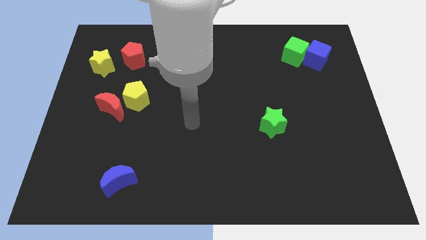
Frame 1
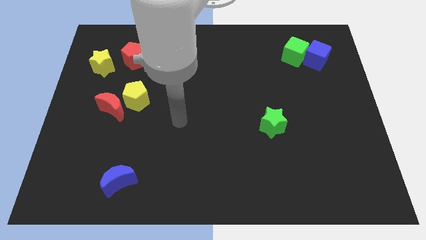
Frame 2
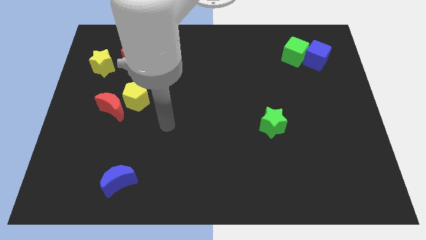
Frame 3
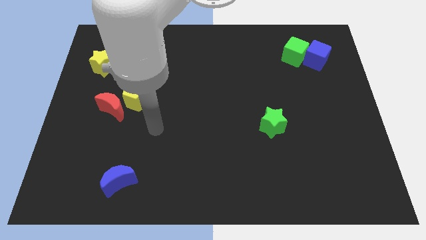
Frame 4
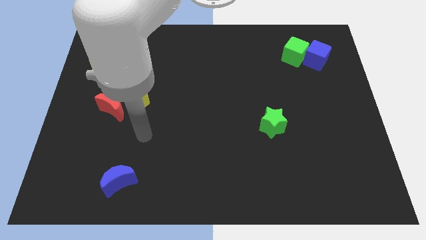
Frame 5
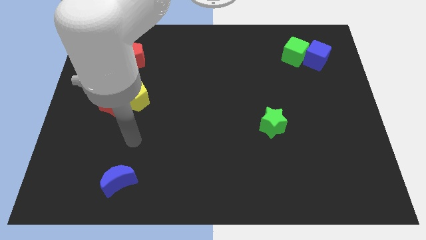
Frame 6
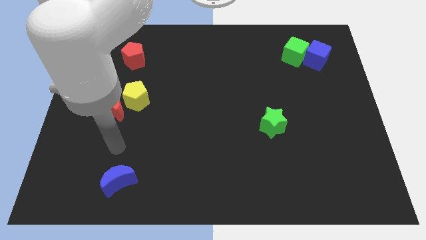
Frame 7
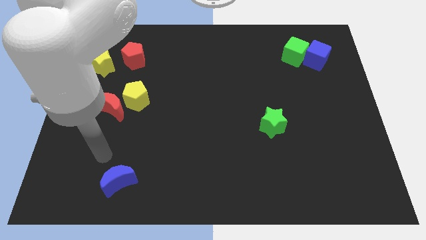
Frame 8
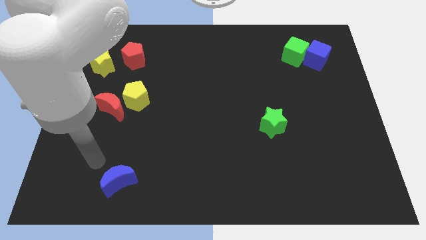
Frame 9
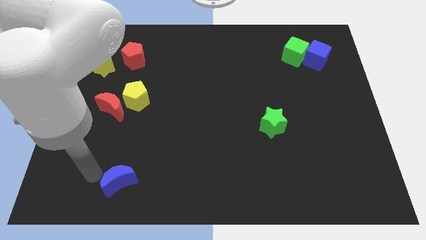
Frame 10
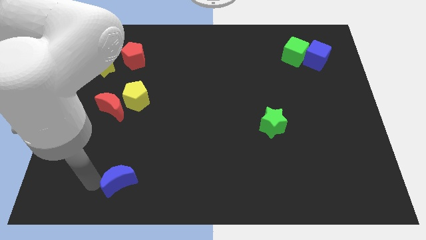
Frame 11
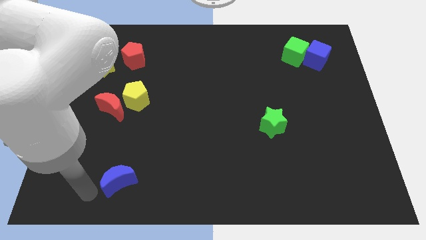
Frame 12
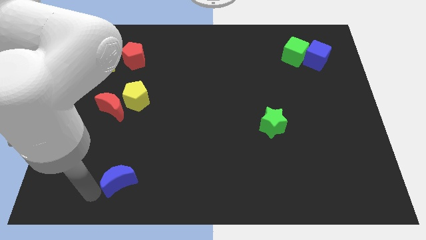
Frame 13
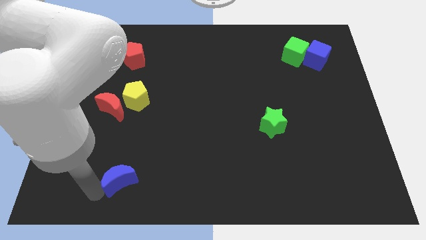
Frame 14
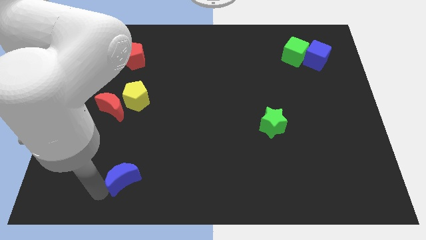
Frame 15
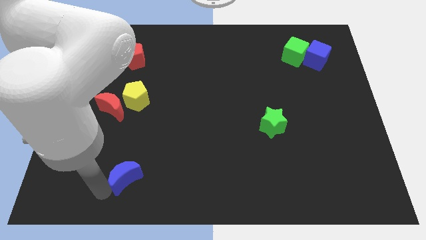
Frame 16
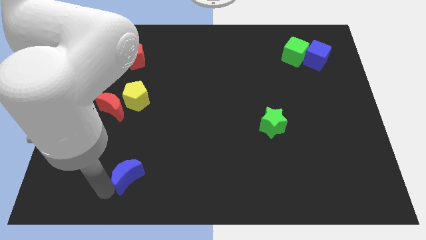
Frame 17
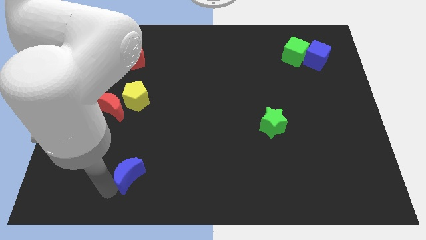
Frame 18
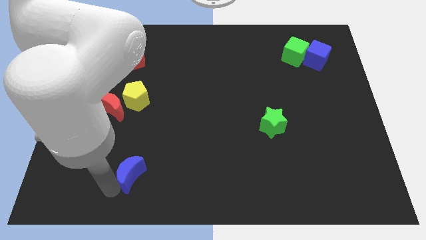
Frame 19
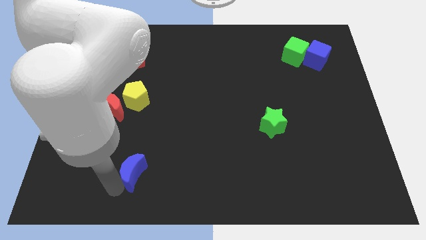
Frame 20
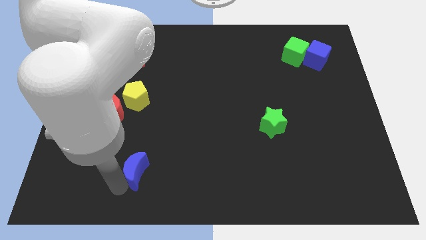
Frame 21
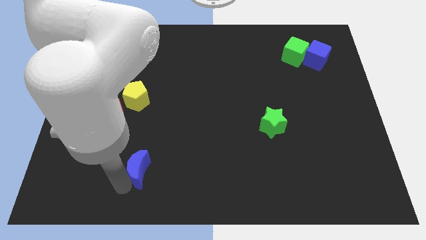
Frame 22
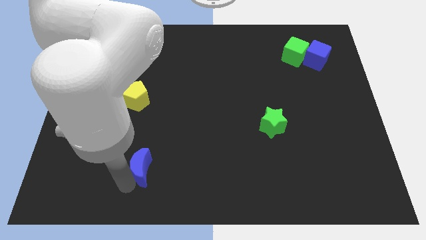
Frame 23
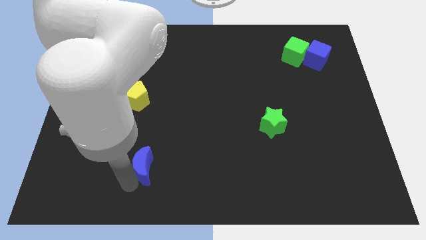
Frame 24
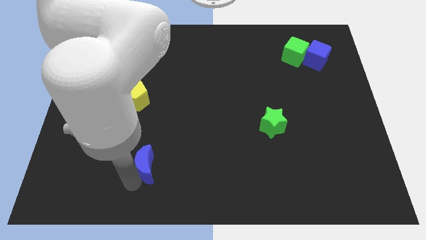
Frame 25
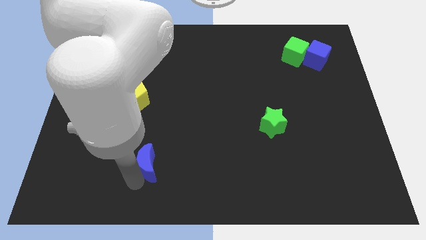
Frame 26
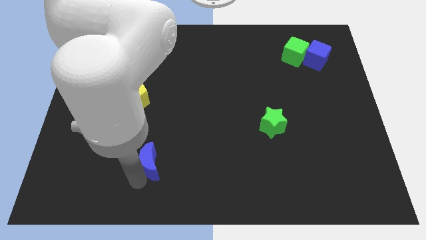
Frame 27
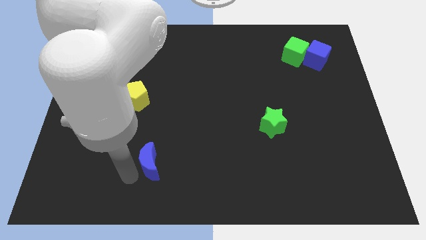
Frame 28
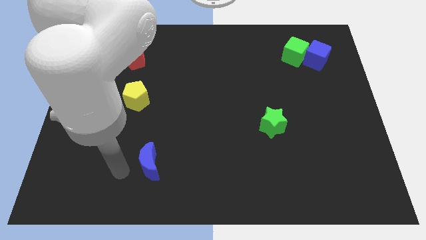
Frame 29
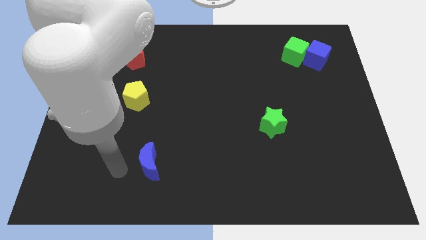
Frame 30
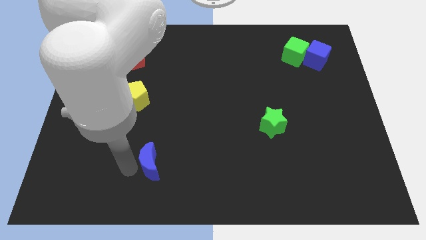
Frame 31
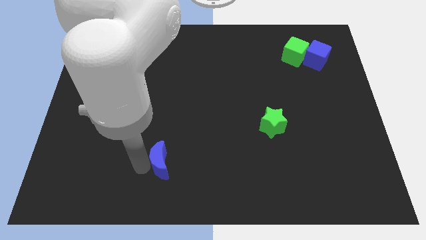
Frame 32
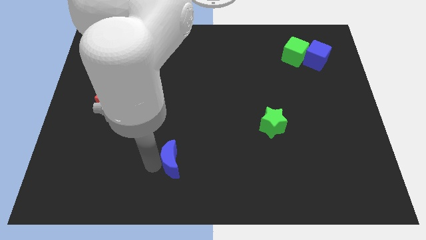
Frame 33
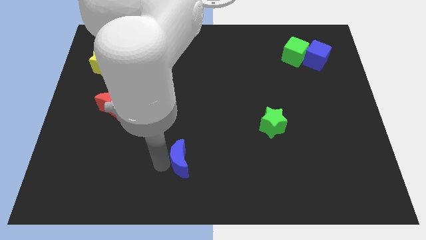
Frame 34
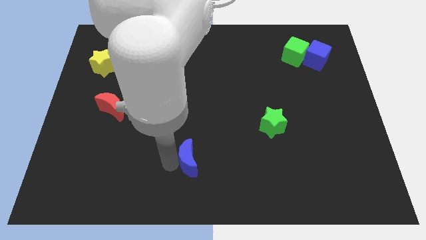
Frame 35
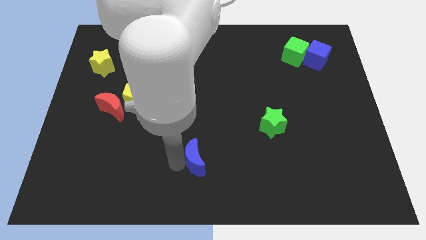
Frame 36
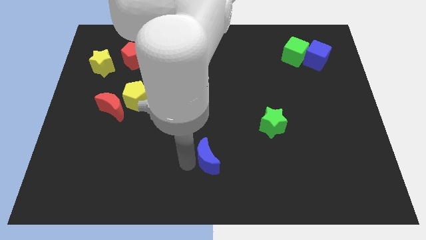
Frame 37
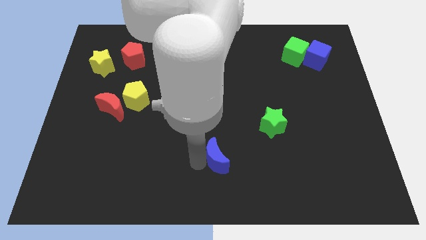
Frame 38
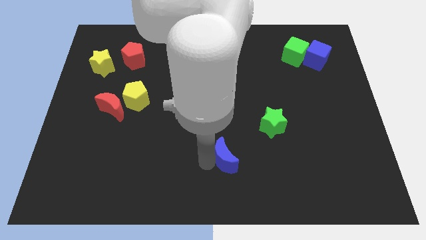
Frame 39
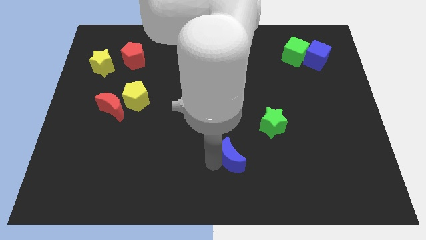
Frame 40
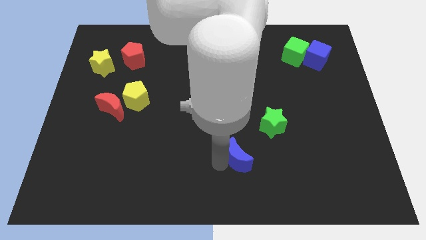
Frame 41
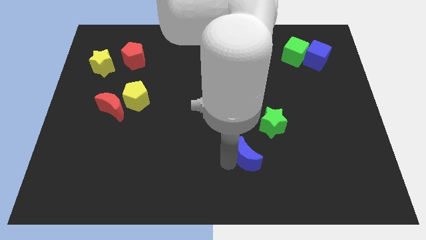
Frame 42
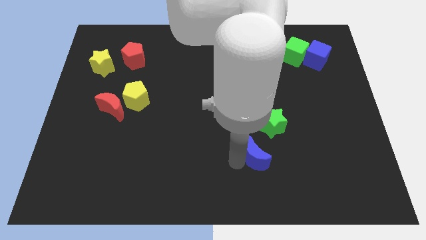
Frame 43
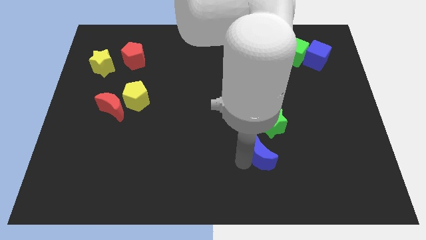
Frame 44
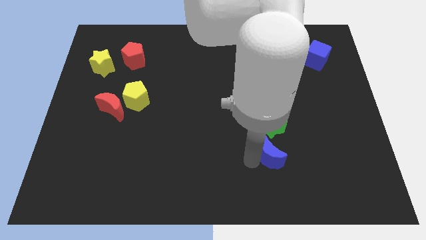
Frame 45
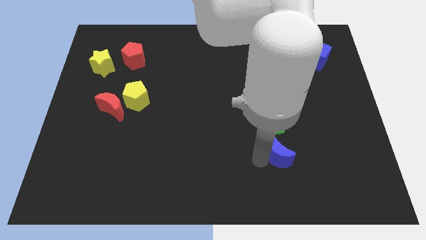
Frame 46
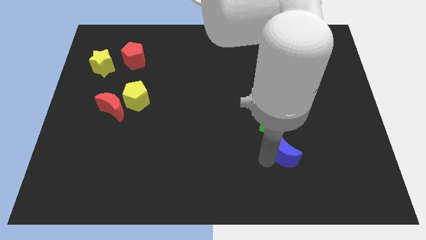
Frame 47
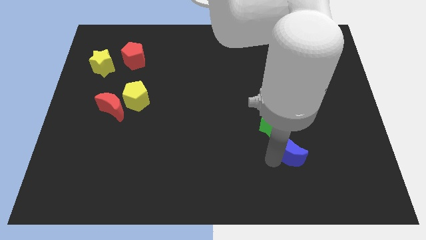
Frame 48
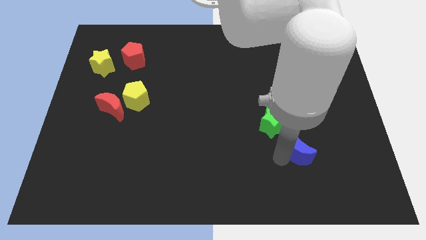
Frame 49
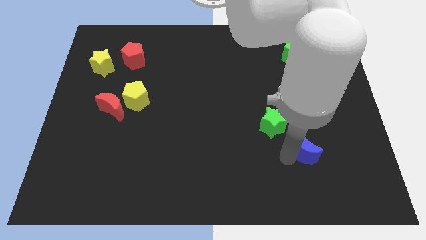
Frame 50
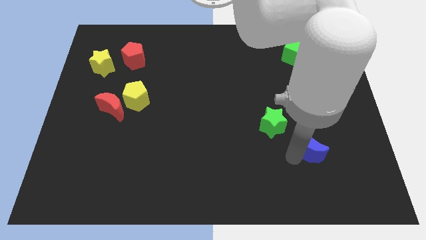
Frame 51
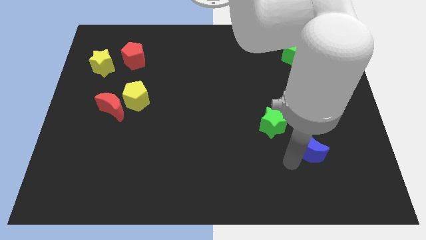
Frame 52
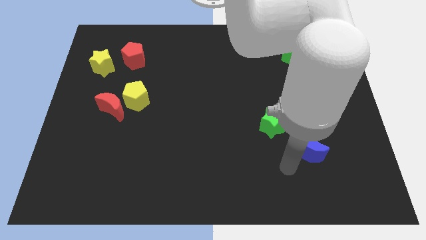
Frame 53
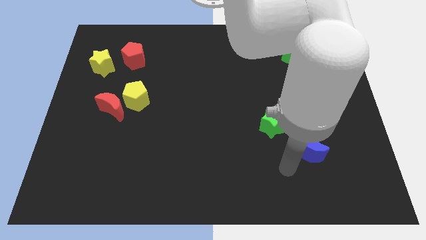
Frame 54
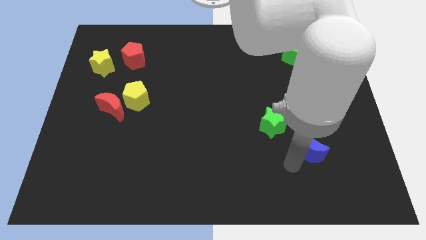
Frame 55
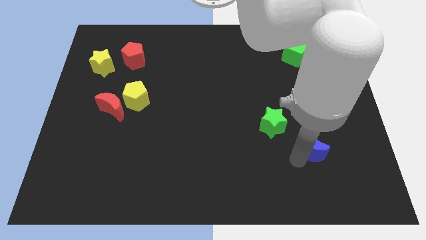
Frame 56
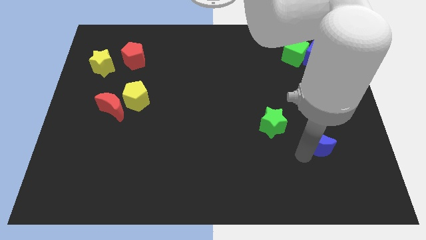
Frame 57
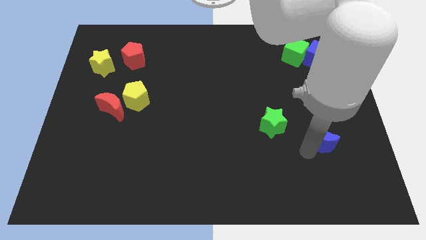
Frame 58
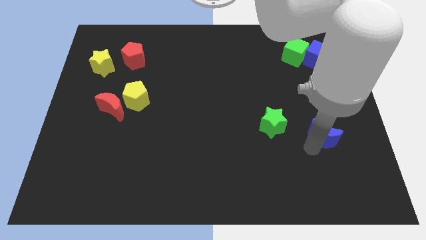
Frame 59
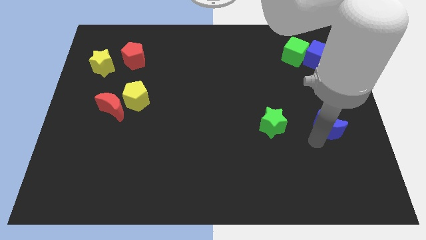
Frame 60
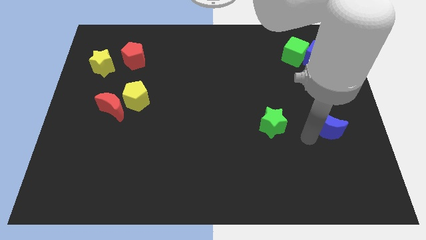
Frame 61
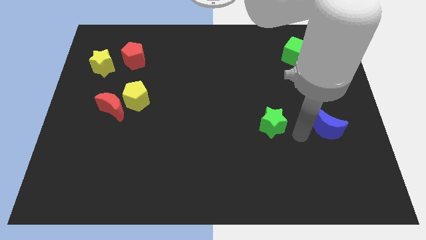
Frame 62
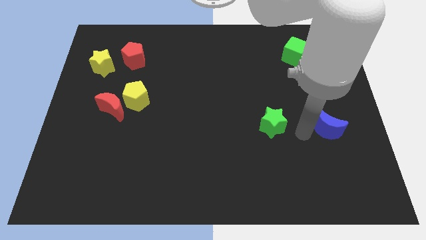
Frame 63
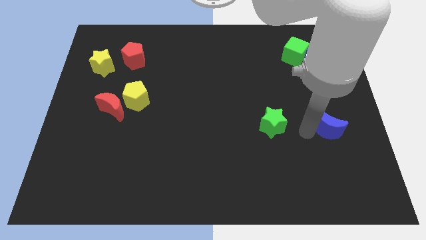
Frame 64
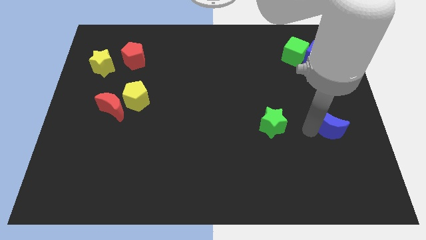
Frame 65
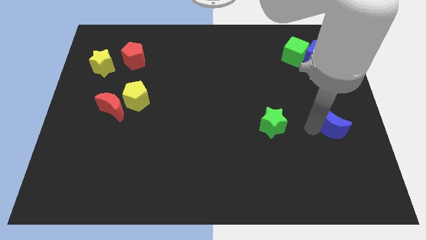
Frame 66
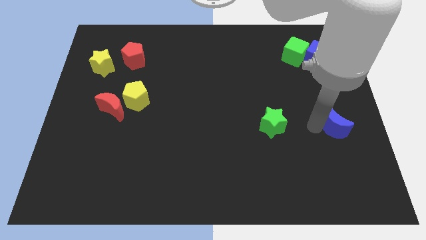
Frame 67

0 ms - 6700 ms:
move the blue moon to the right side of the board
